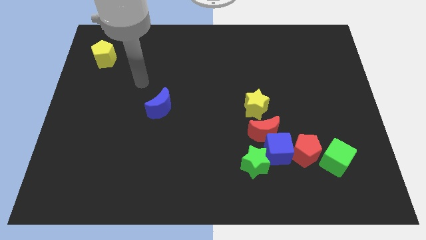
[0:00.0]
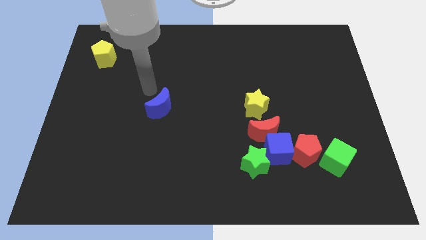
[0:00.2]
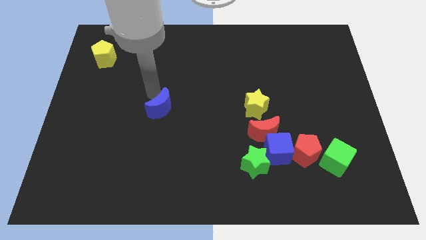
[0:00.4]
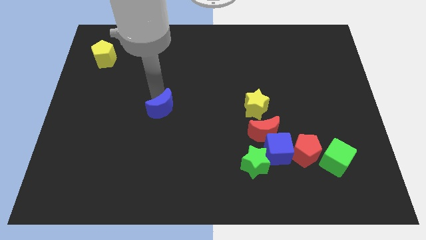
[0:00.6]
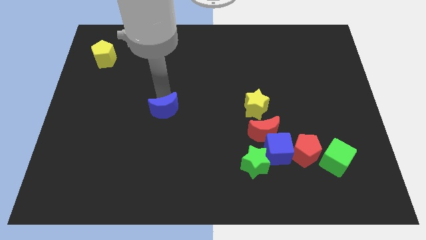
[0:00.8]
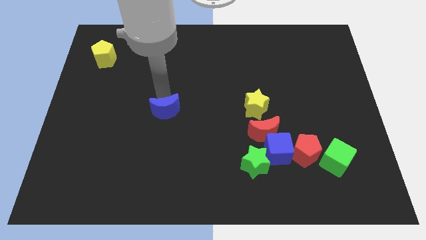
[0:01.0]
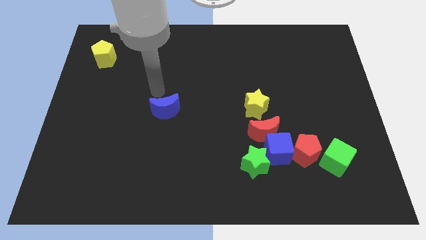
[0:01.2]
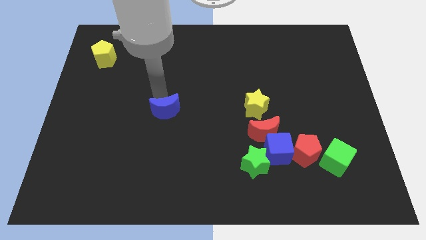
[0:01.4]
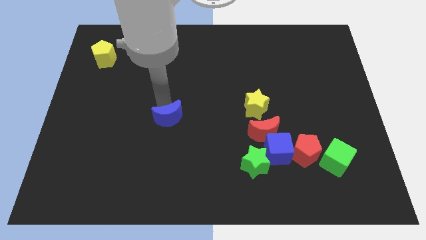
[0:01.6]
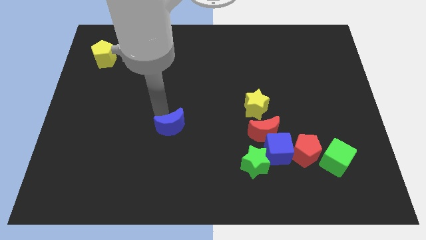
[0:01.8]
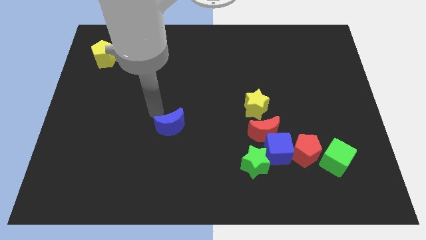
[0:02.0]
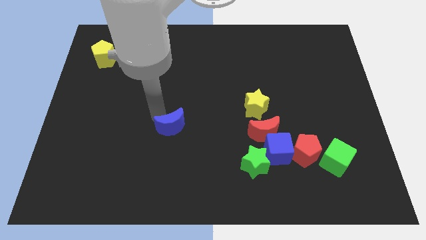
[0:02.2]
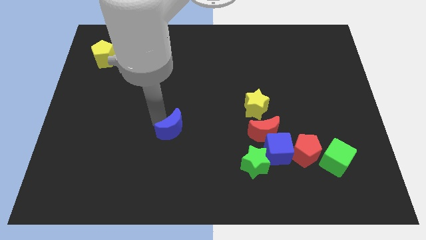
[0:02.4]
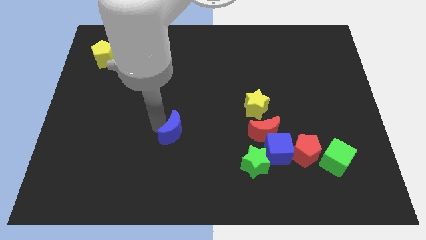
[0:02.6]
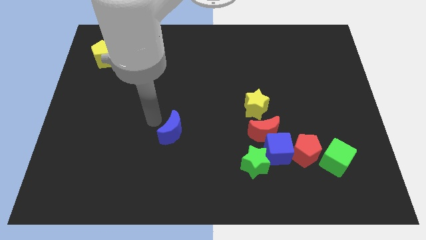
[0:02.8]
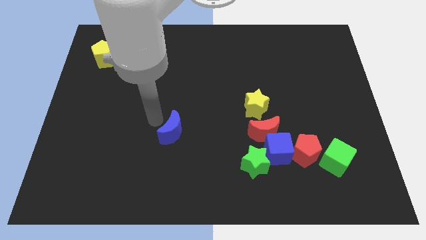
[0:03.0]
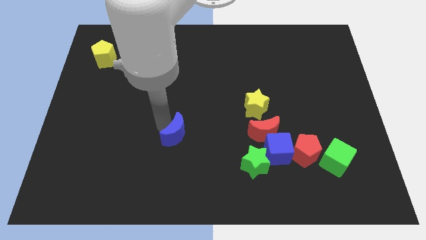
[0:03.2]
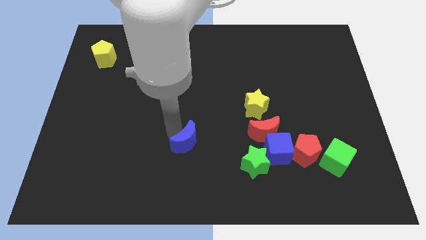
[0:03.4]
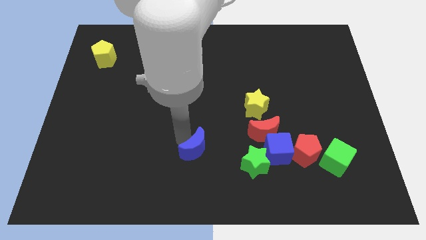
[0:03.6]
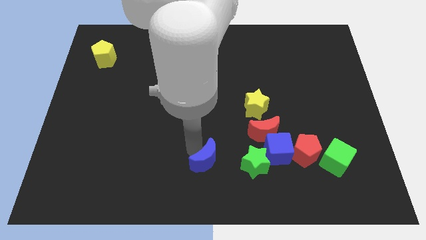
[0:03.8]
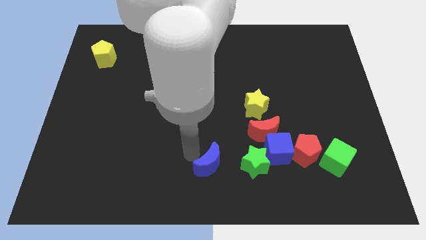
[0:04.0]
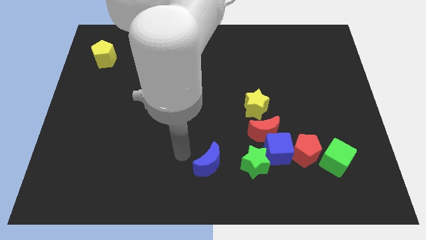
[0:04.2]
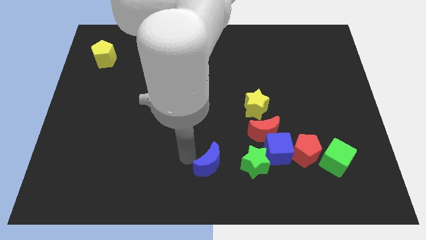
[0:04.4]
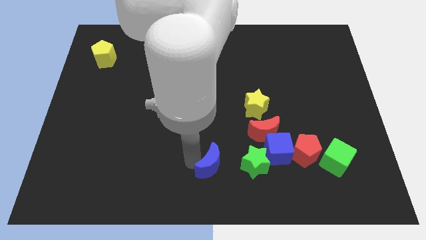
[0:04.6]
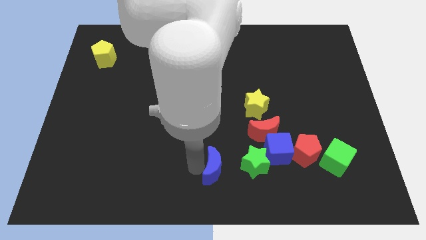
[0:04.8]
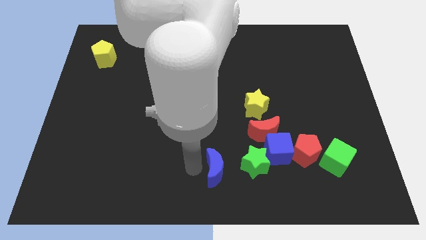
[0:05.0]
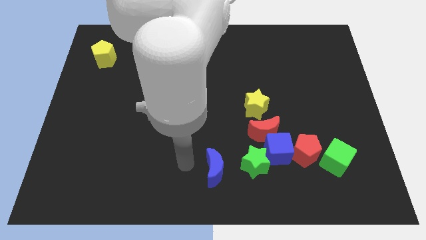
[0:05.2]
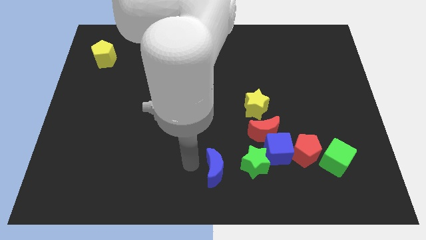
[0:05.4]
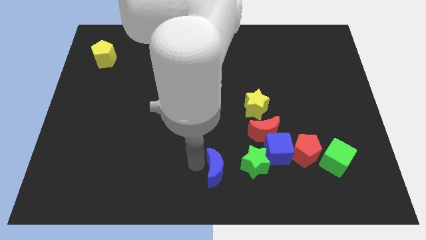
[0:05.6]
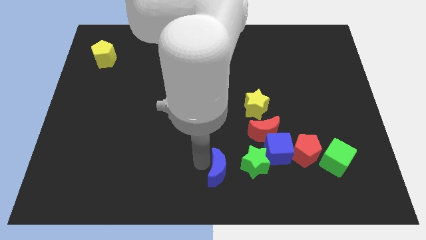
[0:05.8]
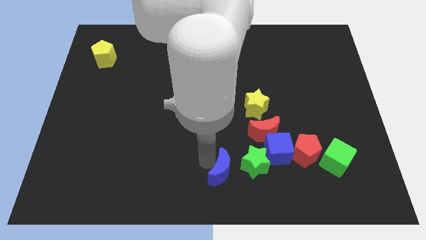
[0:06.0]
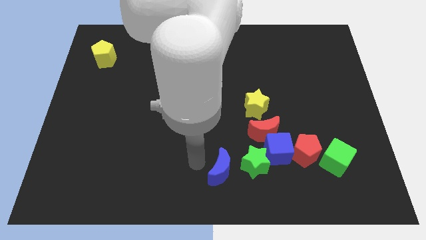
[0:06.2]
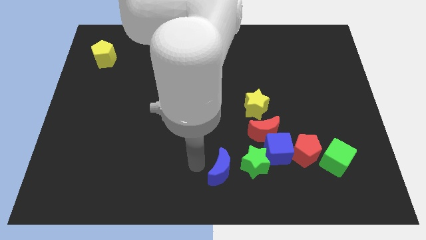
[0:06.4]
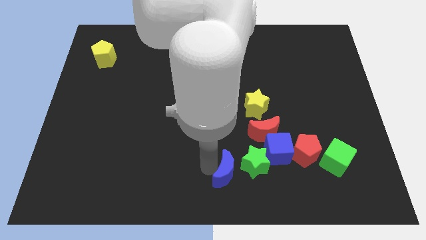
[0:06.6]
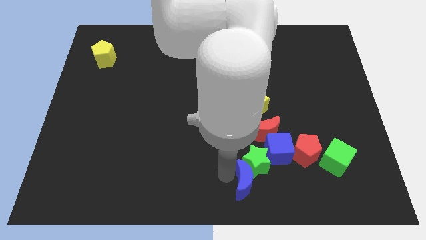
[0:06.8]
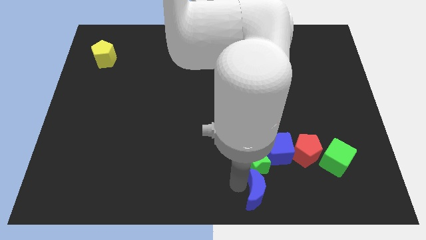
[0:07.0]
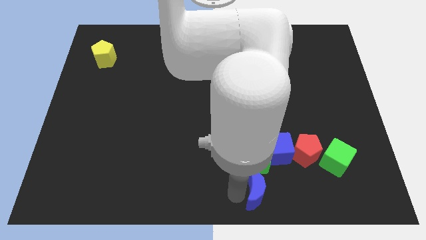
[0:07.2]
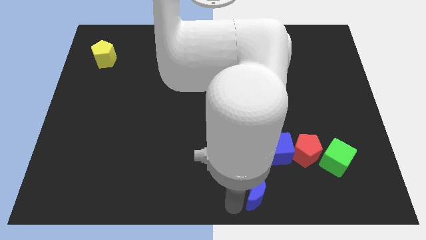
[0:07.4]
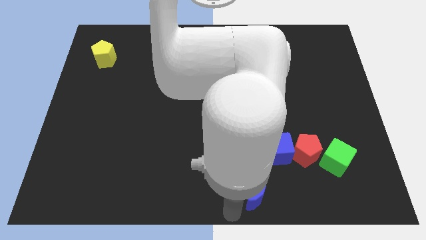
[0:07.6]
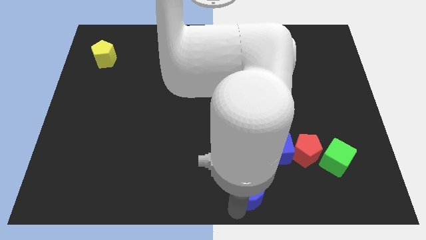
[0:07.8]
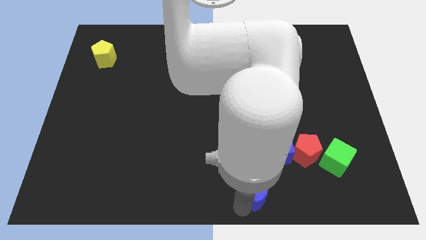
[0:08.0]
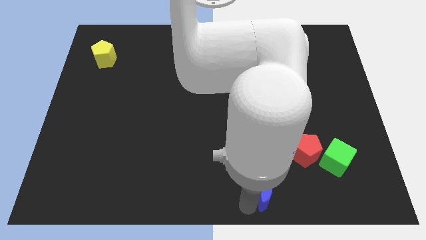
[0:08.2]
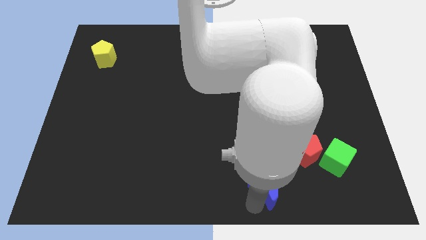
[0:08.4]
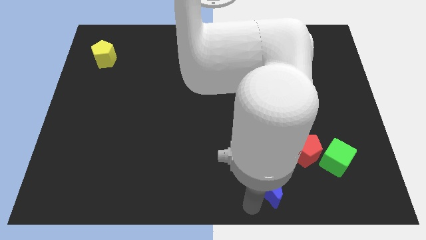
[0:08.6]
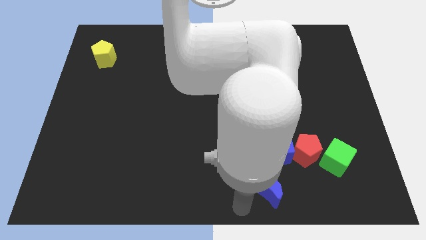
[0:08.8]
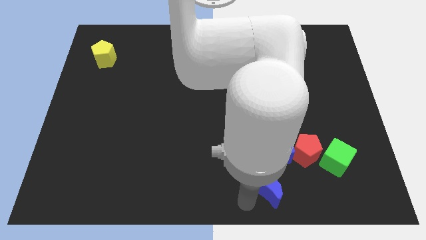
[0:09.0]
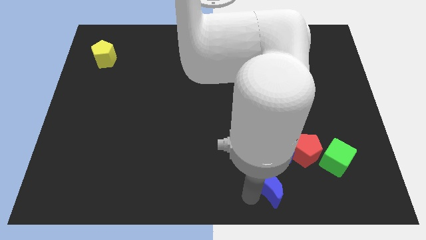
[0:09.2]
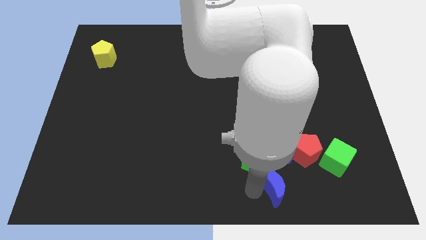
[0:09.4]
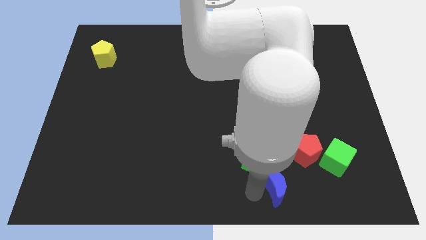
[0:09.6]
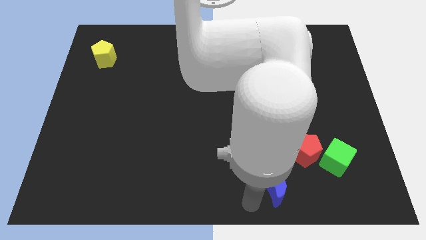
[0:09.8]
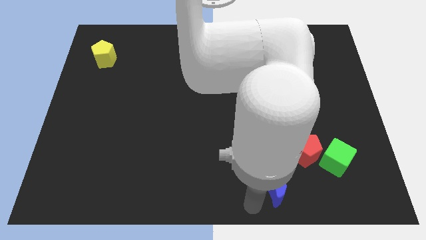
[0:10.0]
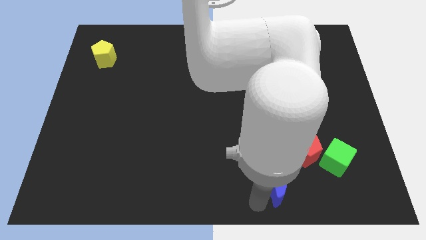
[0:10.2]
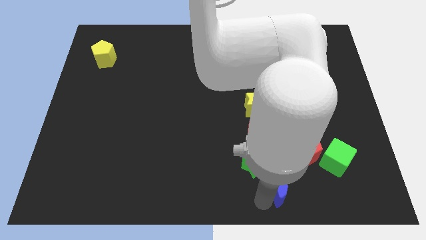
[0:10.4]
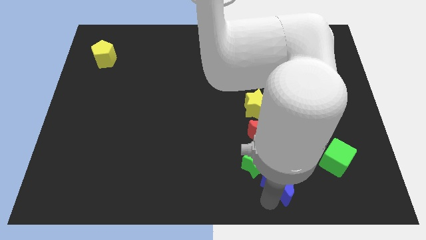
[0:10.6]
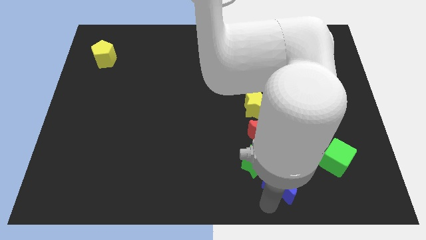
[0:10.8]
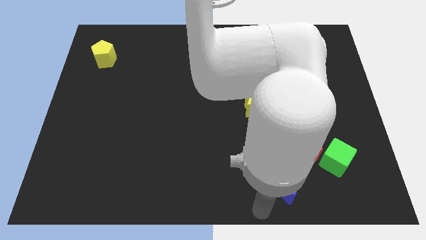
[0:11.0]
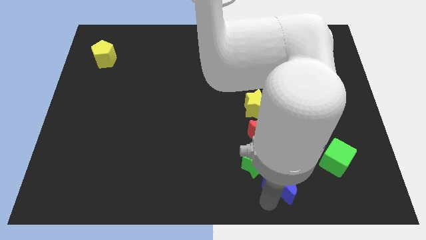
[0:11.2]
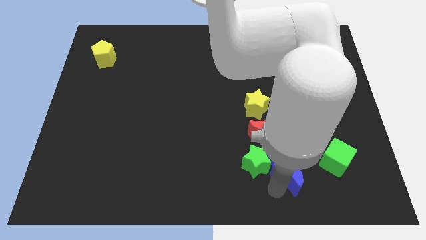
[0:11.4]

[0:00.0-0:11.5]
move the blue moon to the bottom right side of the blue cube

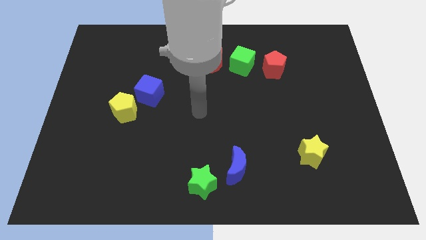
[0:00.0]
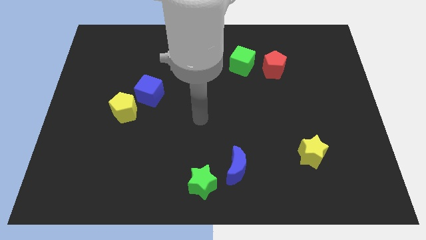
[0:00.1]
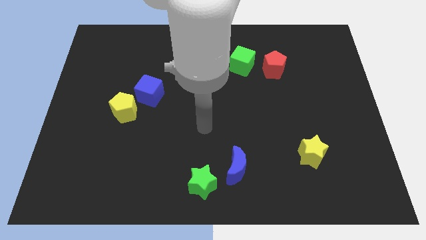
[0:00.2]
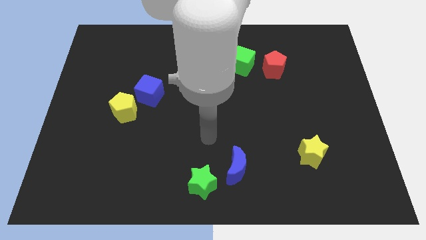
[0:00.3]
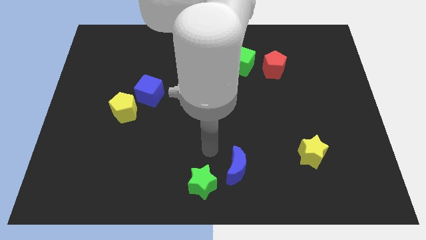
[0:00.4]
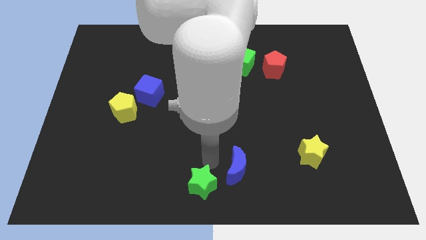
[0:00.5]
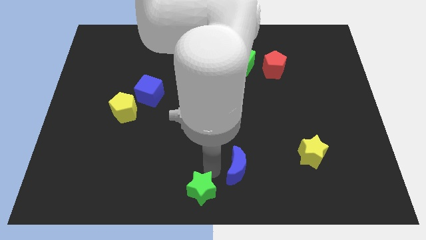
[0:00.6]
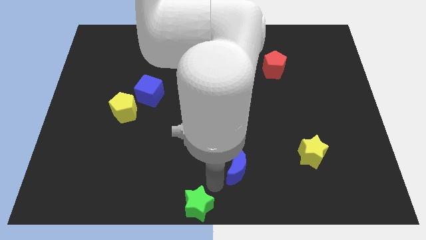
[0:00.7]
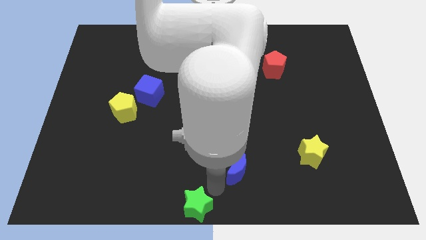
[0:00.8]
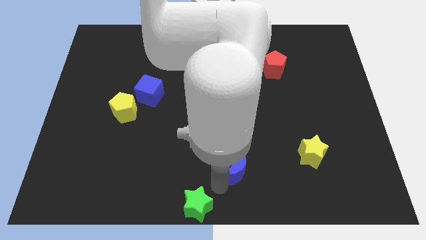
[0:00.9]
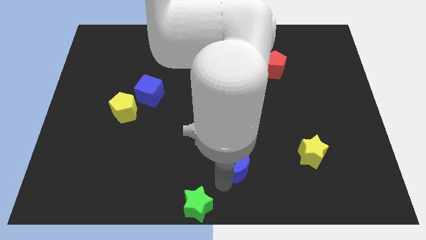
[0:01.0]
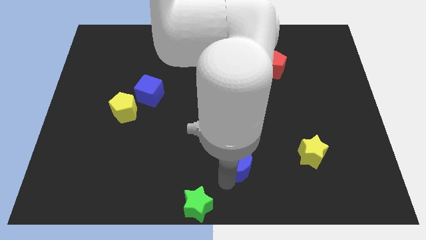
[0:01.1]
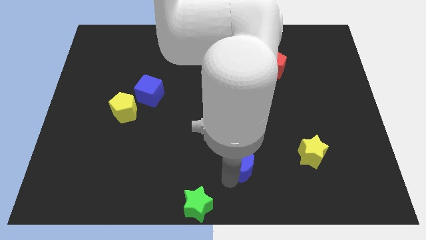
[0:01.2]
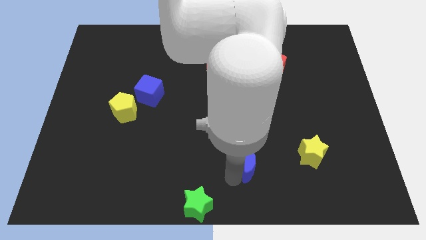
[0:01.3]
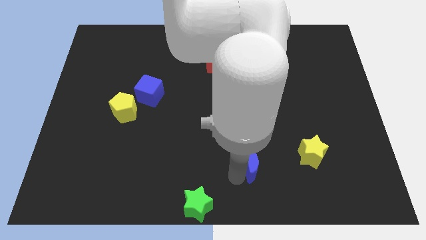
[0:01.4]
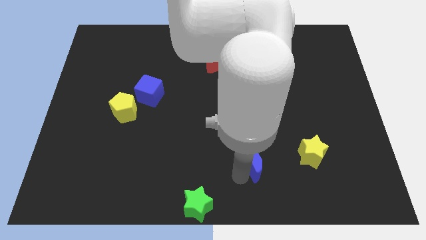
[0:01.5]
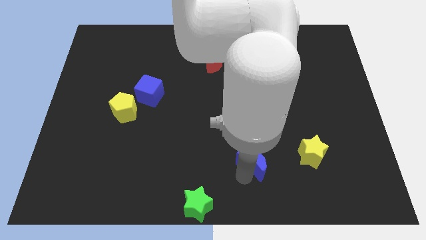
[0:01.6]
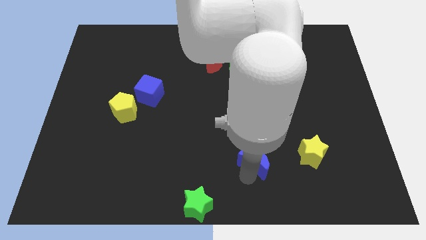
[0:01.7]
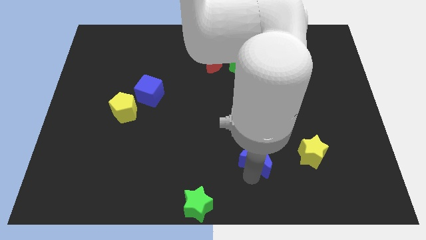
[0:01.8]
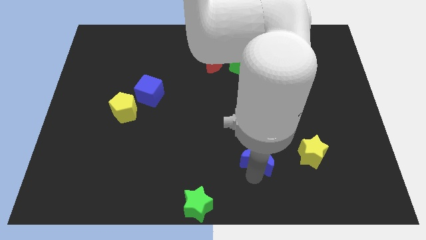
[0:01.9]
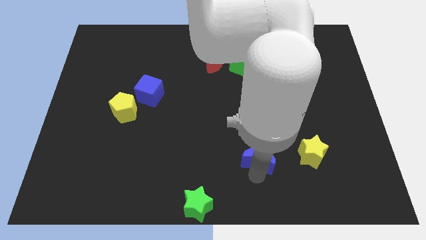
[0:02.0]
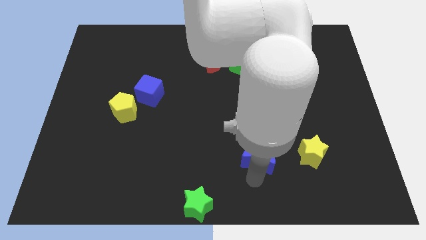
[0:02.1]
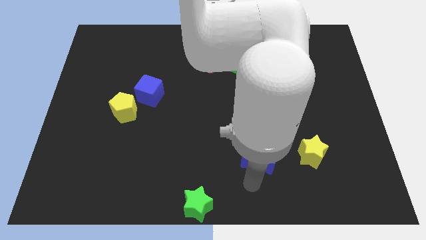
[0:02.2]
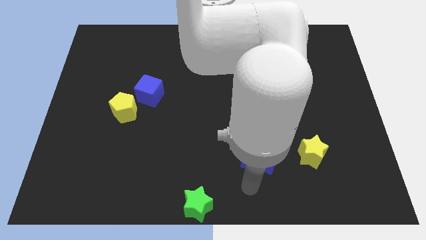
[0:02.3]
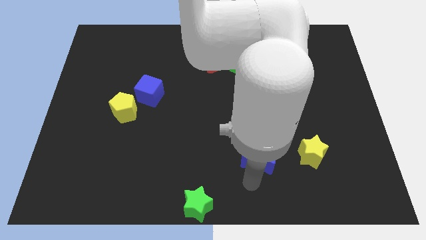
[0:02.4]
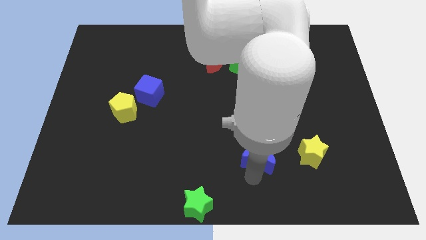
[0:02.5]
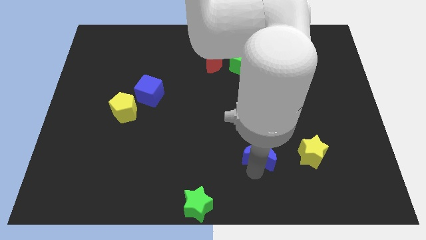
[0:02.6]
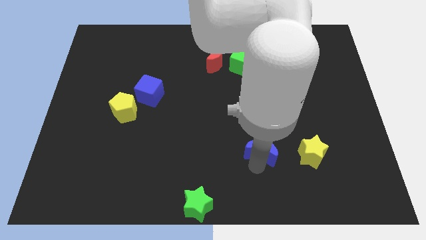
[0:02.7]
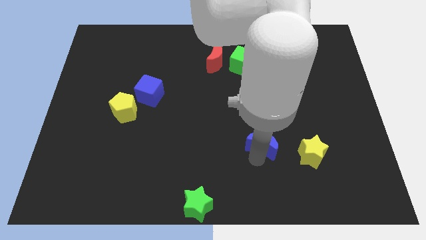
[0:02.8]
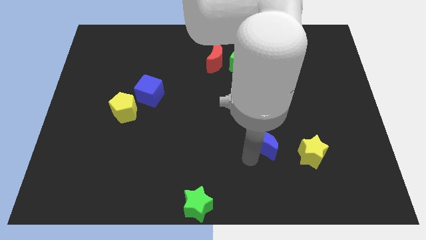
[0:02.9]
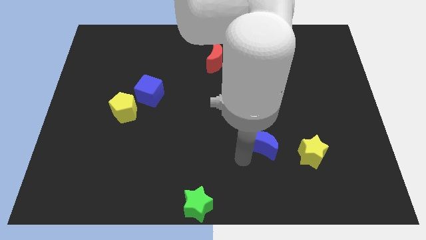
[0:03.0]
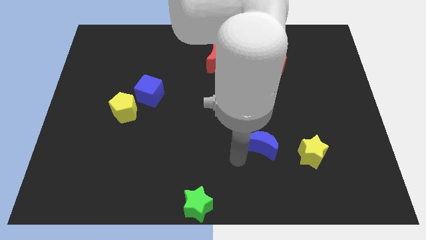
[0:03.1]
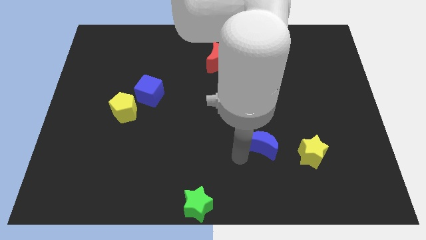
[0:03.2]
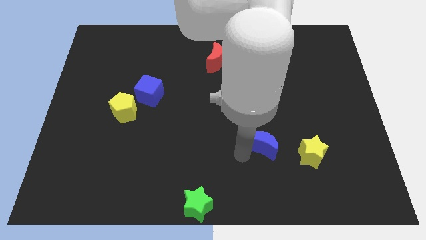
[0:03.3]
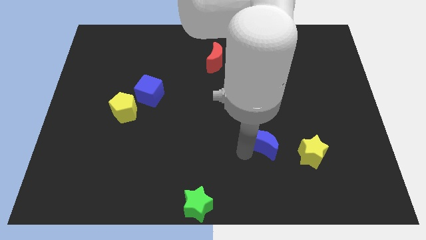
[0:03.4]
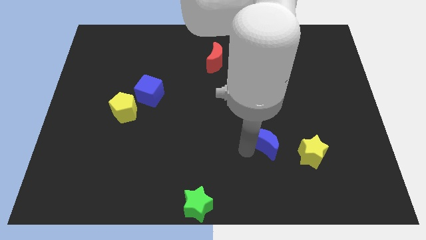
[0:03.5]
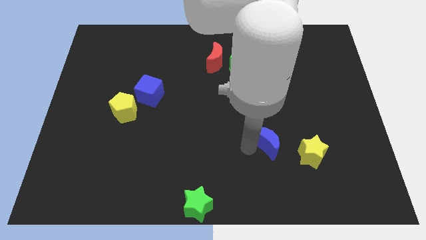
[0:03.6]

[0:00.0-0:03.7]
move the blue moon to the top left of the yellow star
